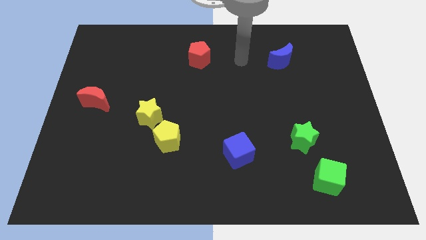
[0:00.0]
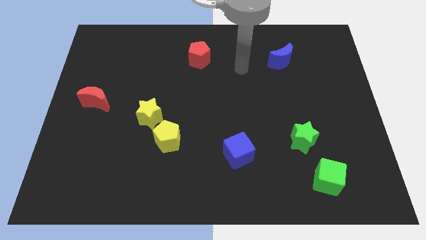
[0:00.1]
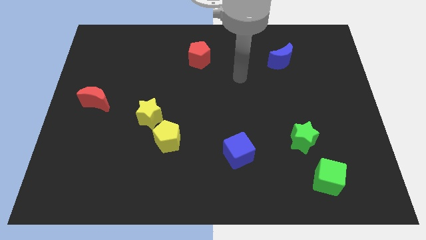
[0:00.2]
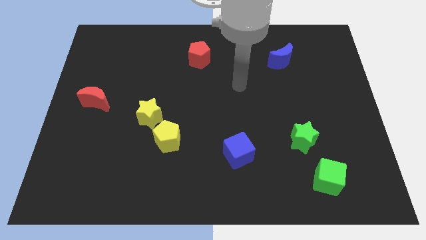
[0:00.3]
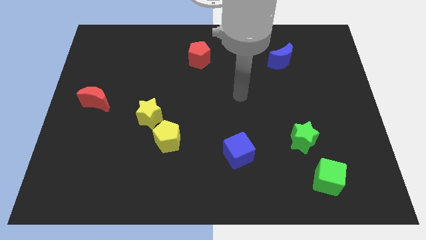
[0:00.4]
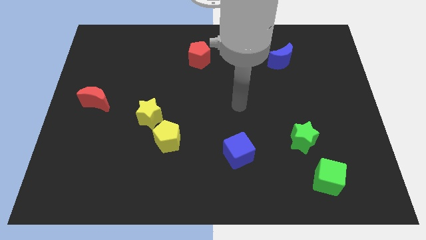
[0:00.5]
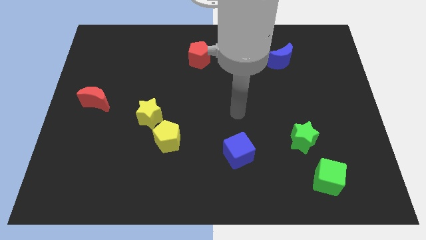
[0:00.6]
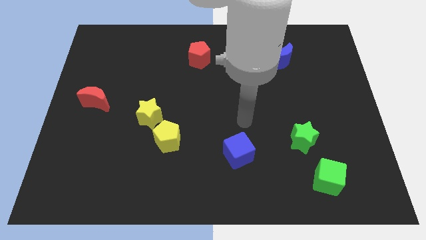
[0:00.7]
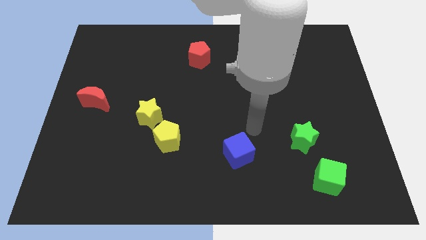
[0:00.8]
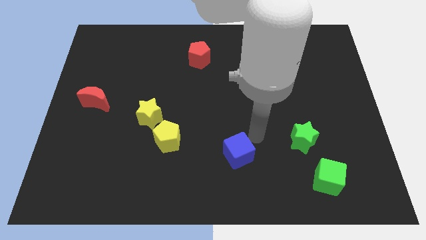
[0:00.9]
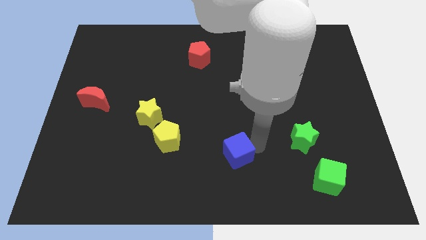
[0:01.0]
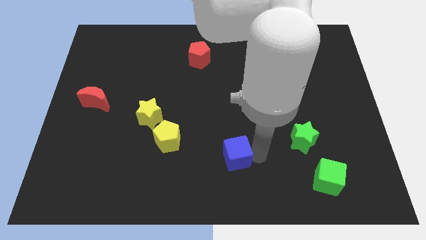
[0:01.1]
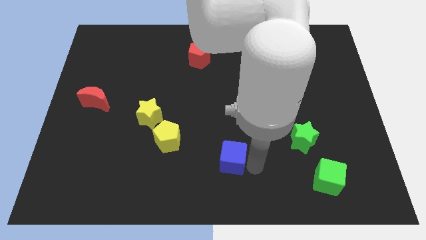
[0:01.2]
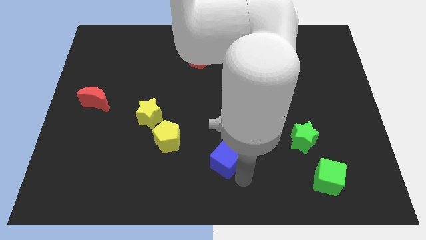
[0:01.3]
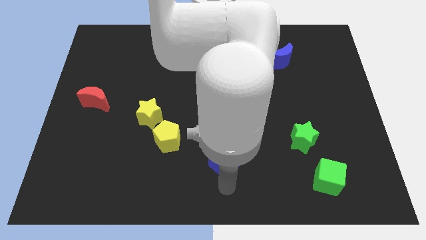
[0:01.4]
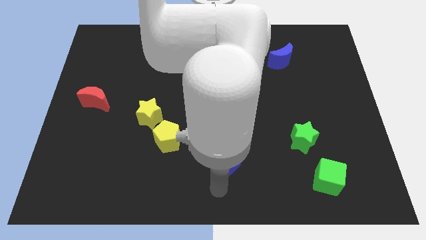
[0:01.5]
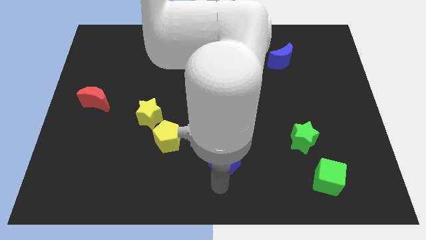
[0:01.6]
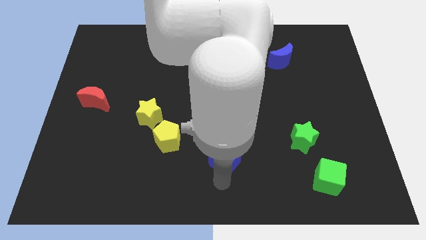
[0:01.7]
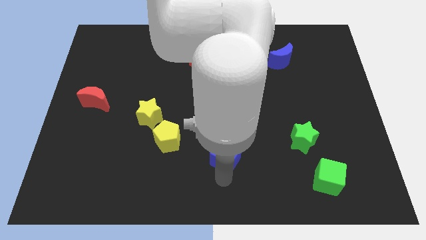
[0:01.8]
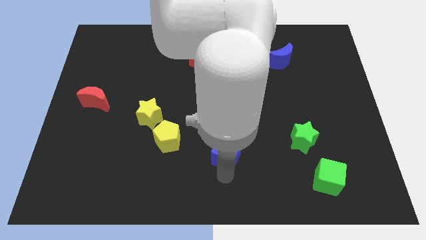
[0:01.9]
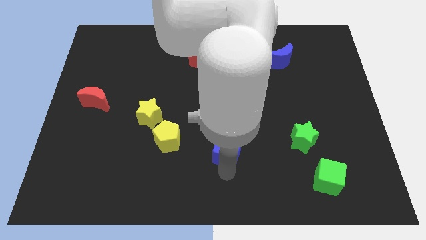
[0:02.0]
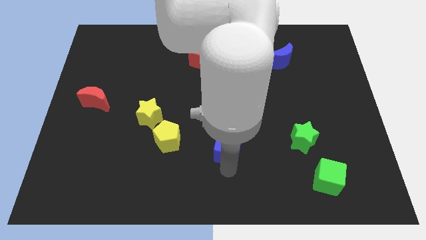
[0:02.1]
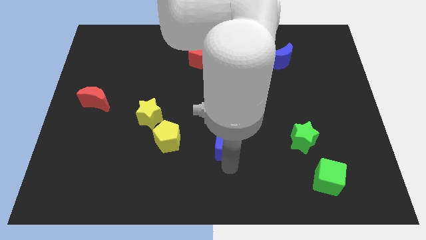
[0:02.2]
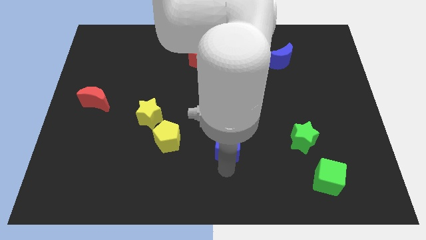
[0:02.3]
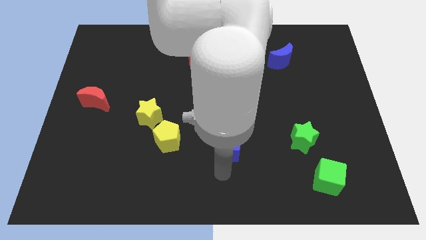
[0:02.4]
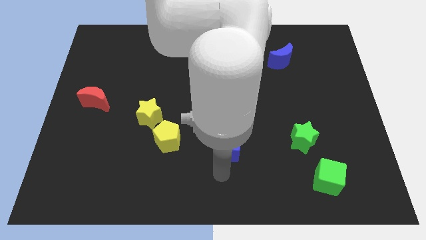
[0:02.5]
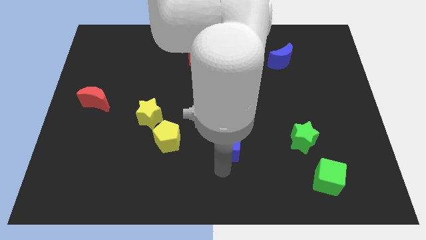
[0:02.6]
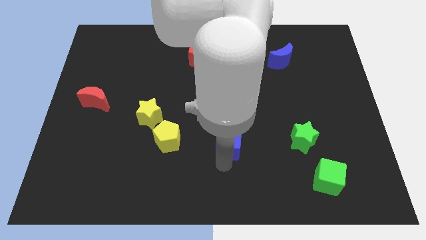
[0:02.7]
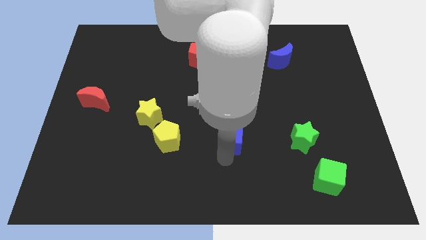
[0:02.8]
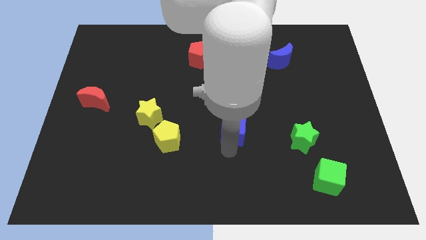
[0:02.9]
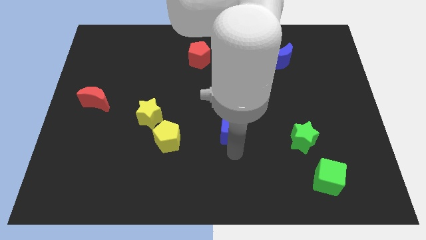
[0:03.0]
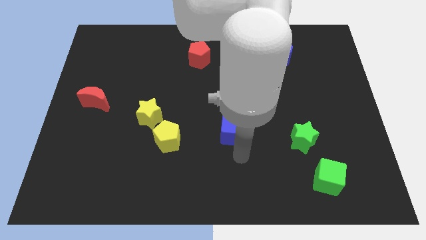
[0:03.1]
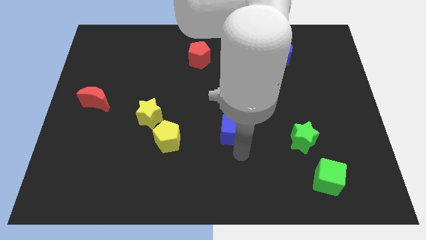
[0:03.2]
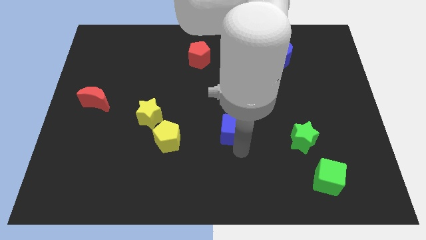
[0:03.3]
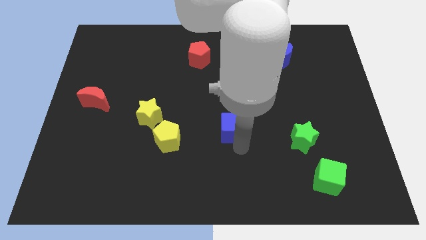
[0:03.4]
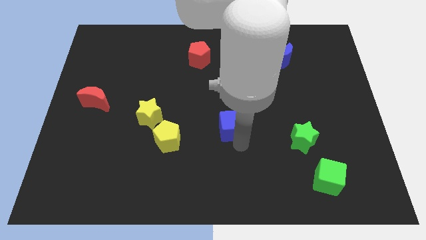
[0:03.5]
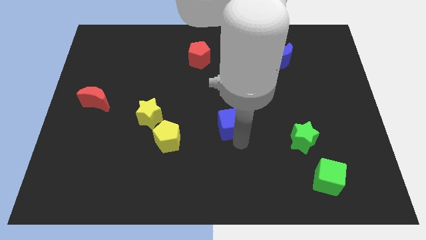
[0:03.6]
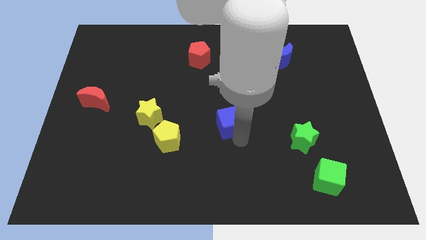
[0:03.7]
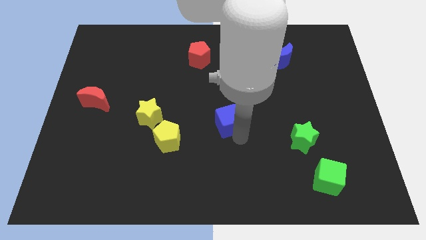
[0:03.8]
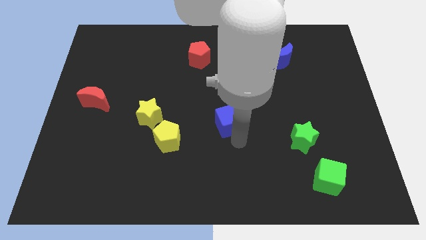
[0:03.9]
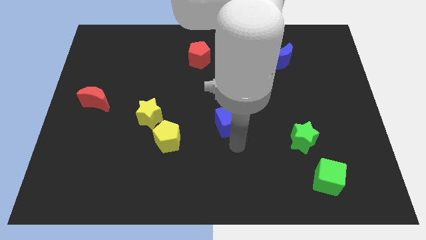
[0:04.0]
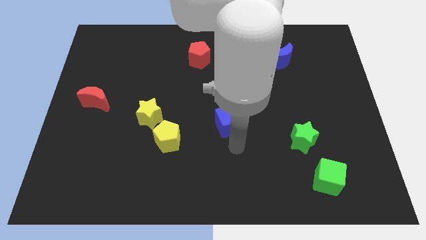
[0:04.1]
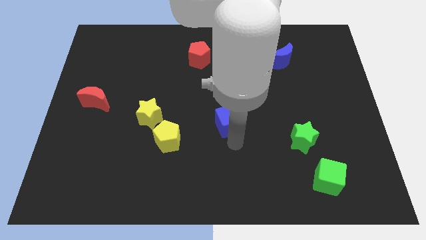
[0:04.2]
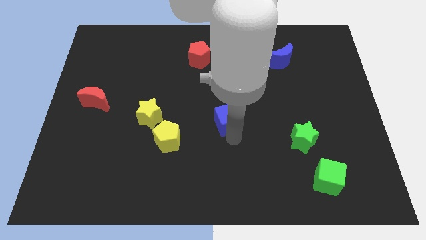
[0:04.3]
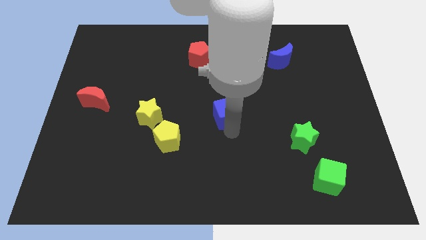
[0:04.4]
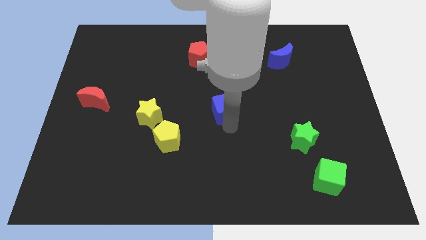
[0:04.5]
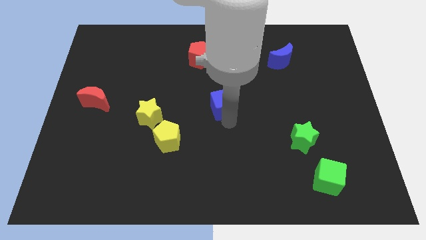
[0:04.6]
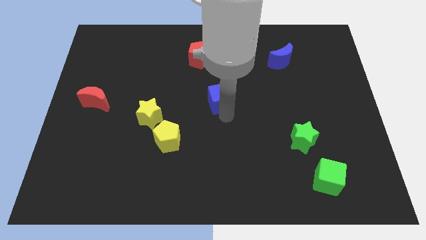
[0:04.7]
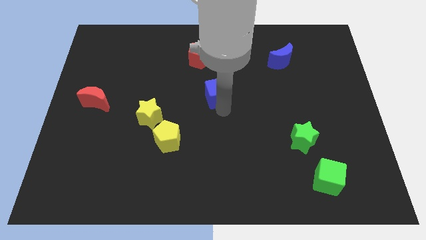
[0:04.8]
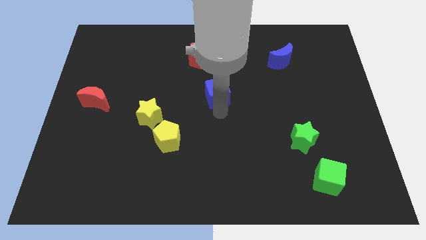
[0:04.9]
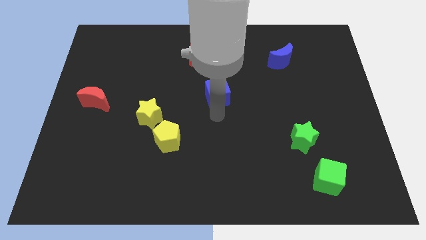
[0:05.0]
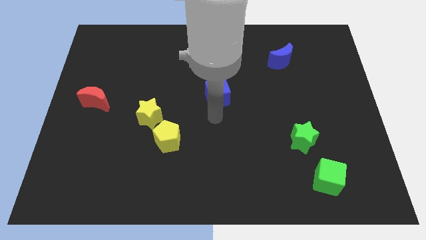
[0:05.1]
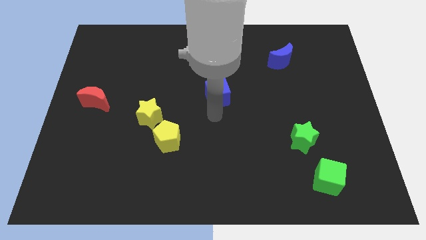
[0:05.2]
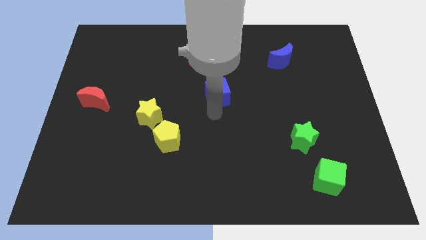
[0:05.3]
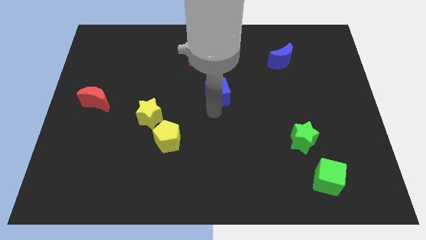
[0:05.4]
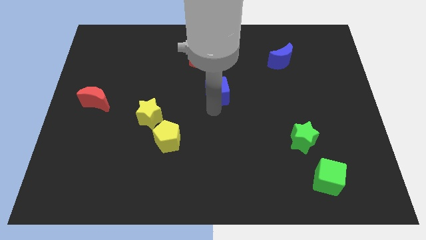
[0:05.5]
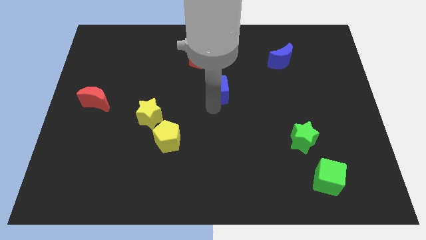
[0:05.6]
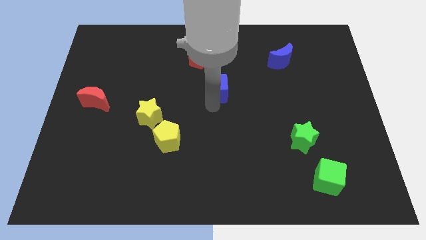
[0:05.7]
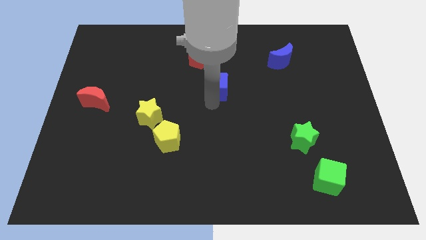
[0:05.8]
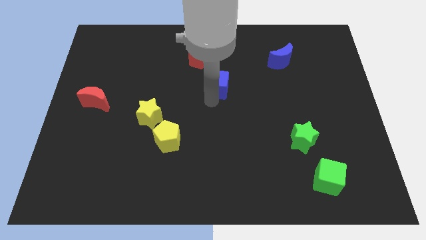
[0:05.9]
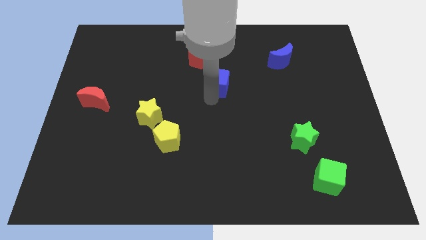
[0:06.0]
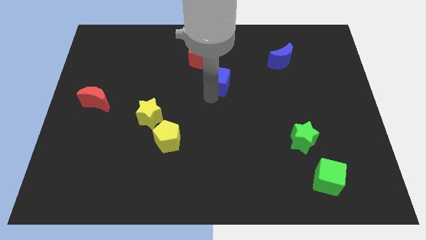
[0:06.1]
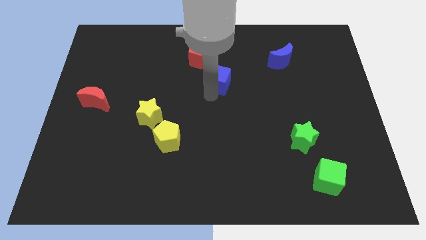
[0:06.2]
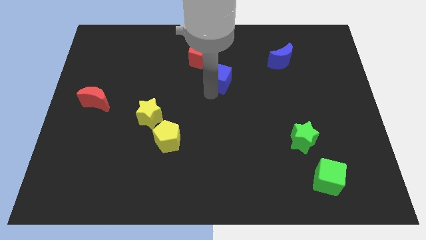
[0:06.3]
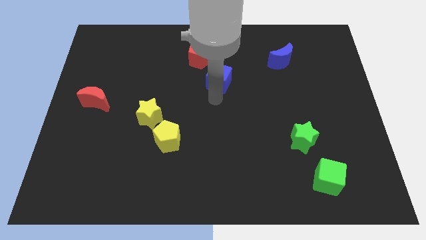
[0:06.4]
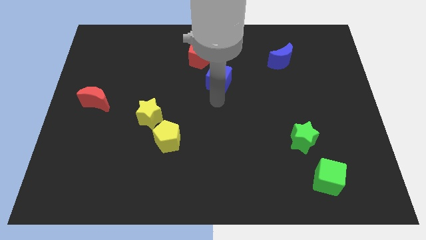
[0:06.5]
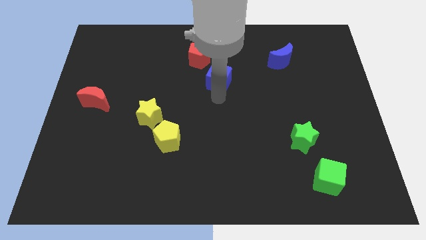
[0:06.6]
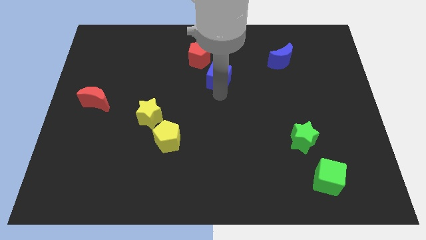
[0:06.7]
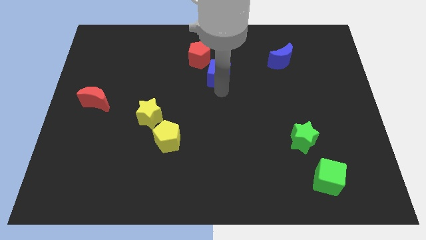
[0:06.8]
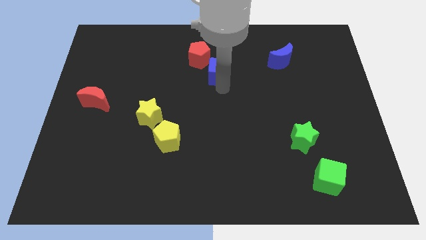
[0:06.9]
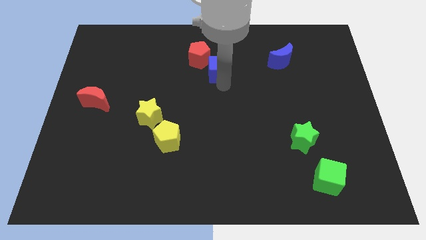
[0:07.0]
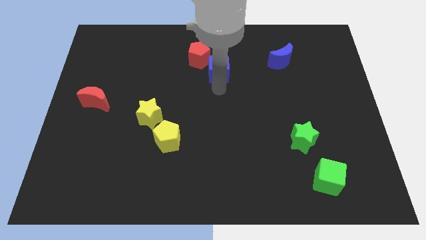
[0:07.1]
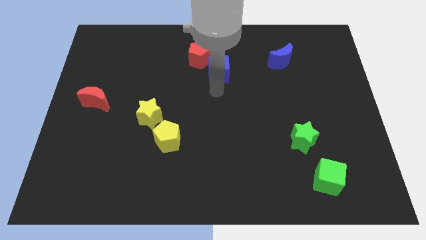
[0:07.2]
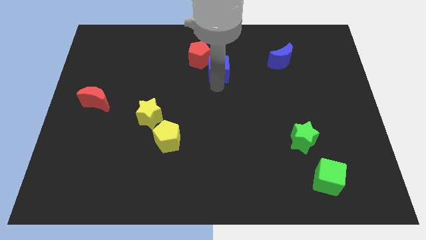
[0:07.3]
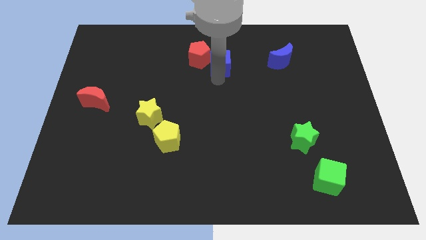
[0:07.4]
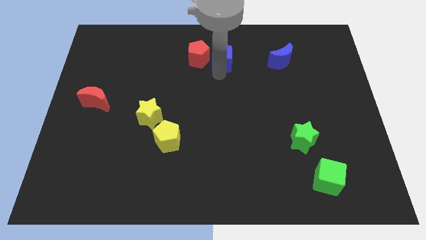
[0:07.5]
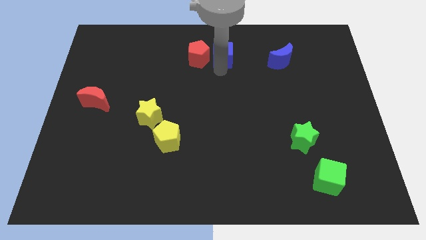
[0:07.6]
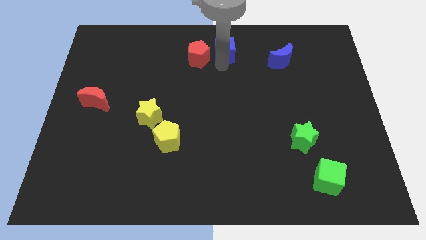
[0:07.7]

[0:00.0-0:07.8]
move the blue cube to the towards your base
